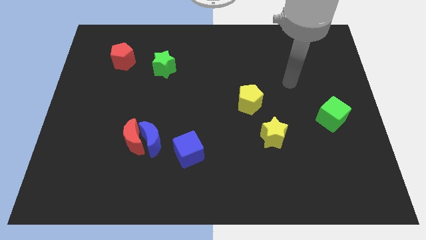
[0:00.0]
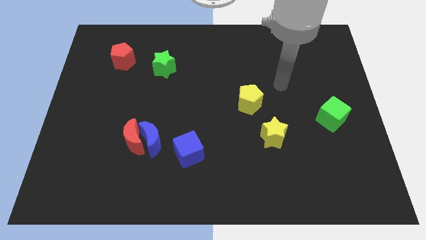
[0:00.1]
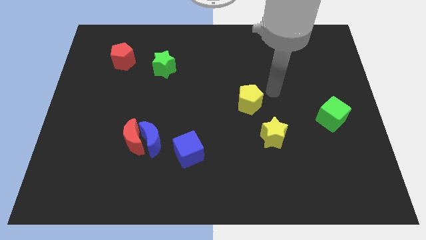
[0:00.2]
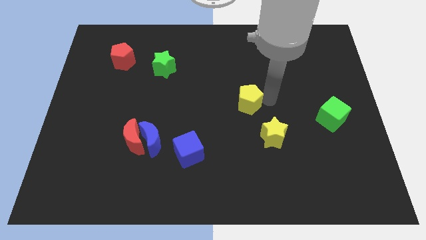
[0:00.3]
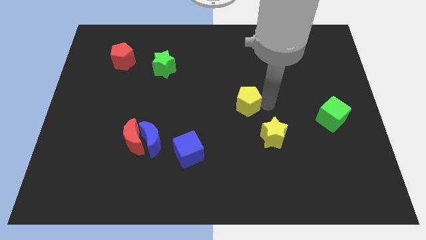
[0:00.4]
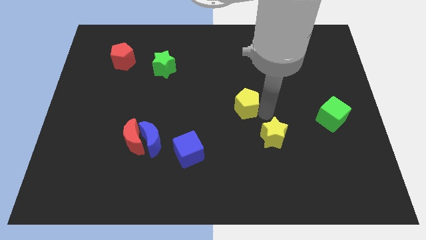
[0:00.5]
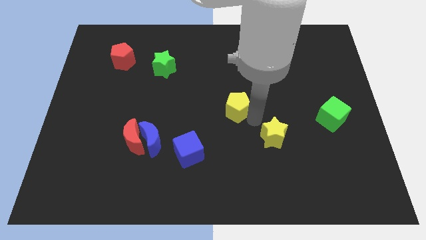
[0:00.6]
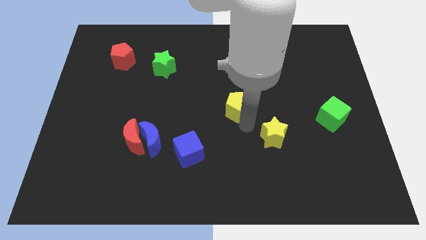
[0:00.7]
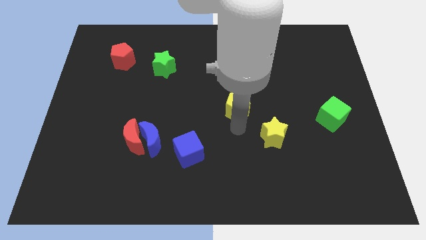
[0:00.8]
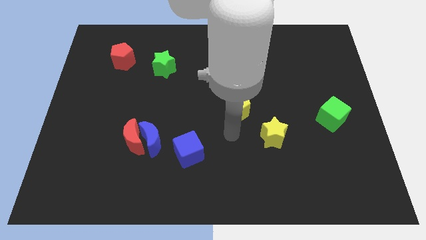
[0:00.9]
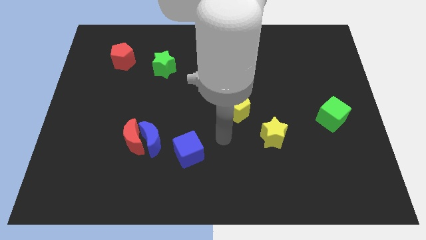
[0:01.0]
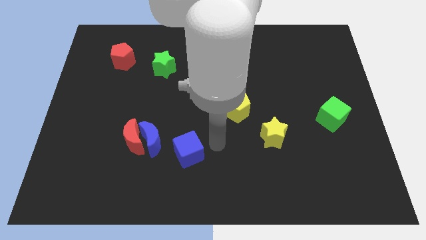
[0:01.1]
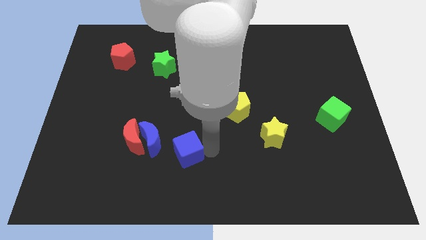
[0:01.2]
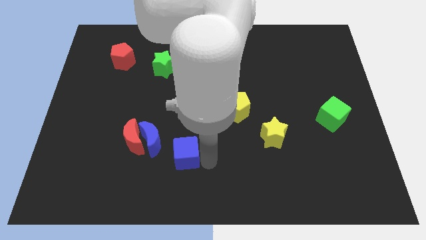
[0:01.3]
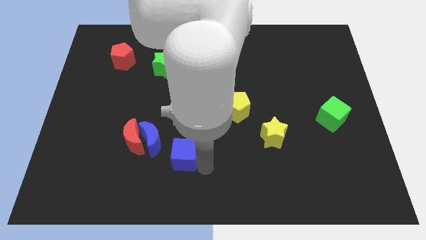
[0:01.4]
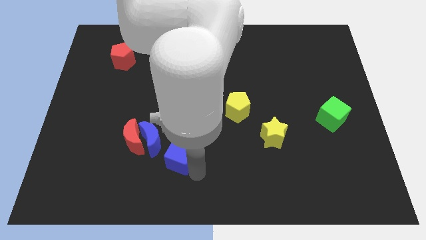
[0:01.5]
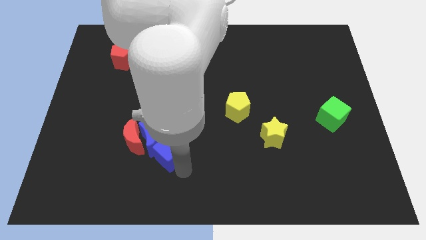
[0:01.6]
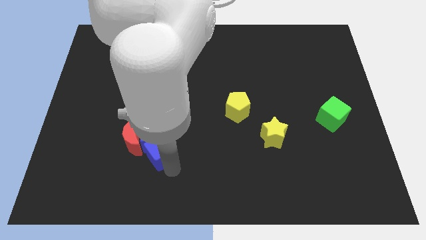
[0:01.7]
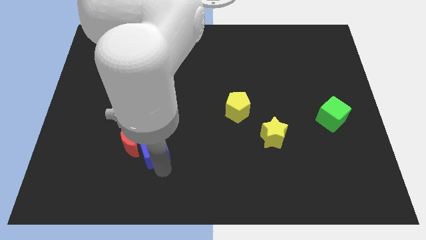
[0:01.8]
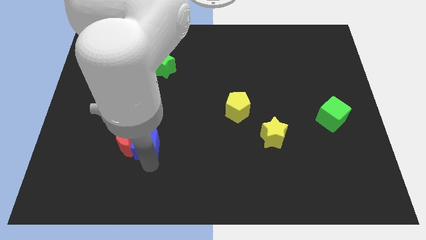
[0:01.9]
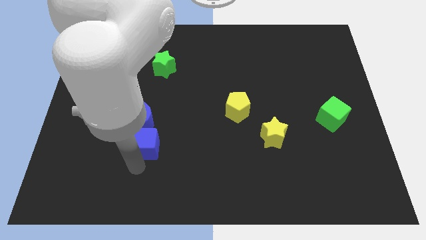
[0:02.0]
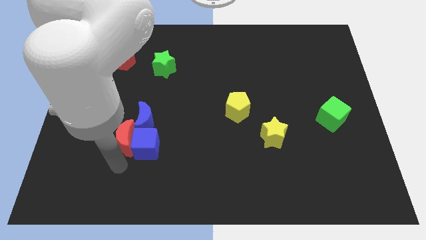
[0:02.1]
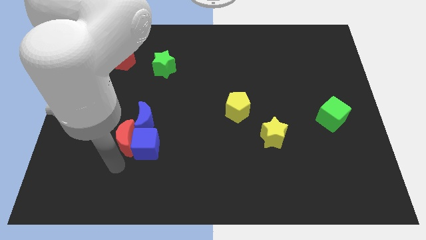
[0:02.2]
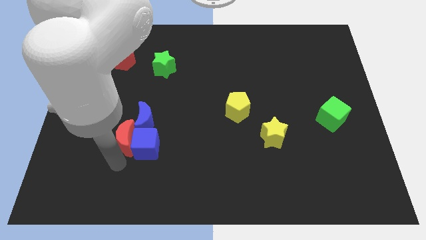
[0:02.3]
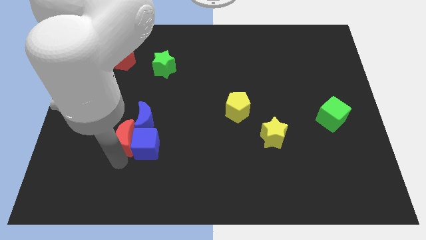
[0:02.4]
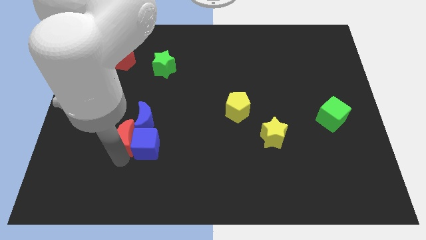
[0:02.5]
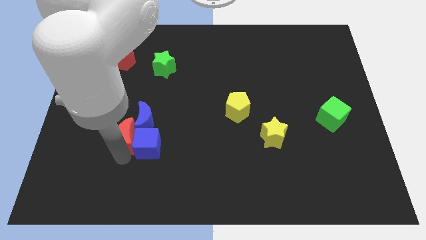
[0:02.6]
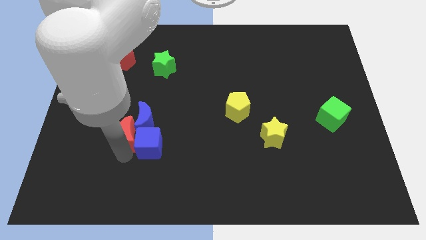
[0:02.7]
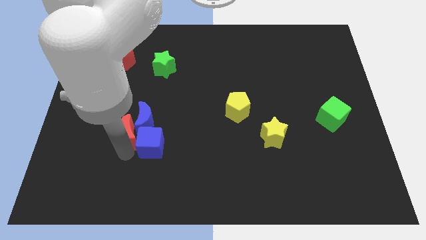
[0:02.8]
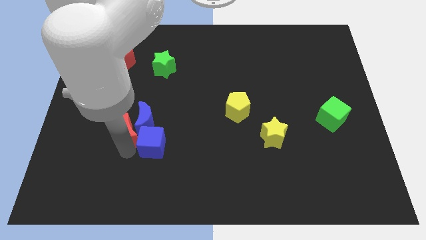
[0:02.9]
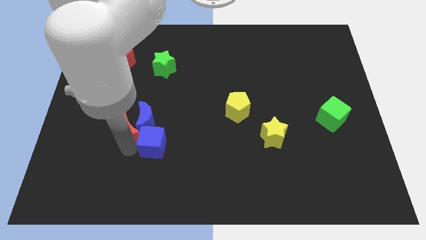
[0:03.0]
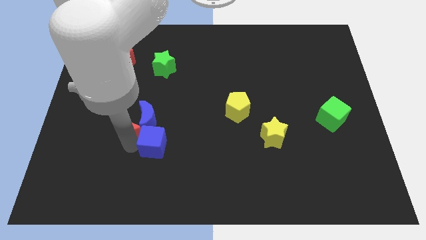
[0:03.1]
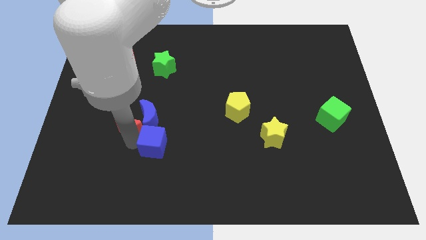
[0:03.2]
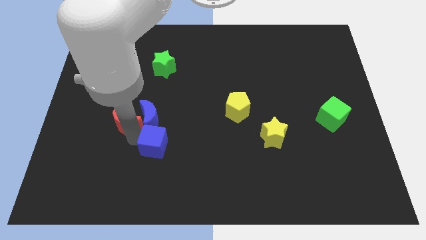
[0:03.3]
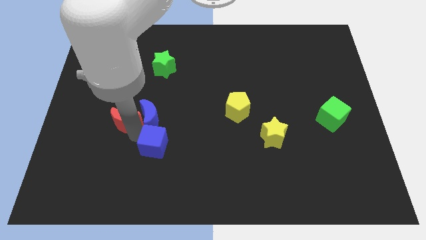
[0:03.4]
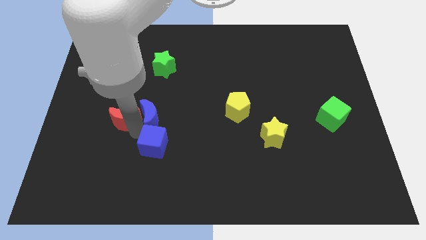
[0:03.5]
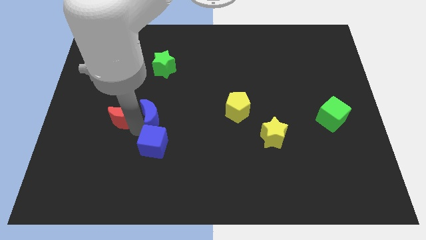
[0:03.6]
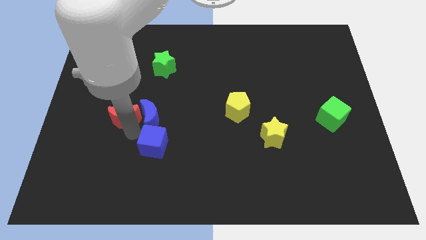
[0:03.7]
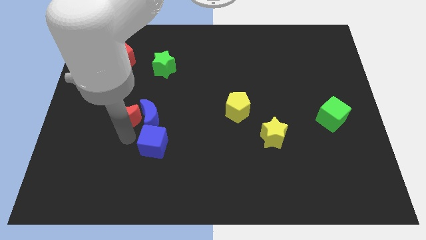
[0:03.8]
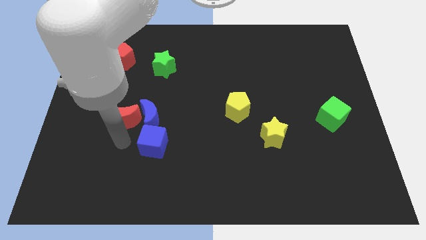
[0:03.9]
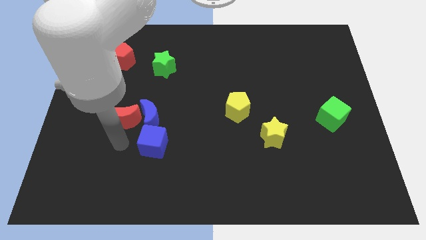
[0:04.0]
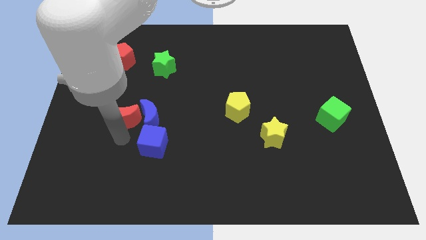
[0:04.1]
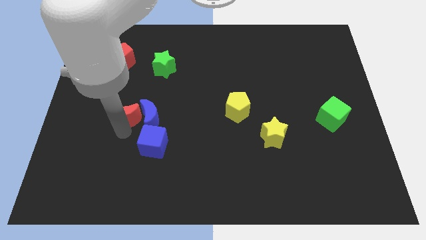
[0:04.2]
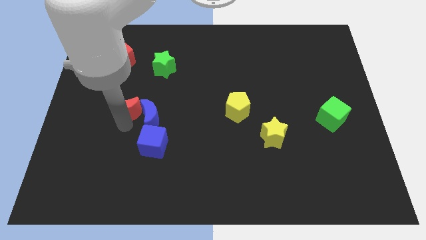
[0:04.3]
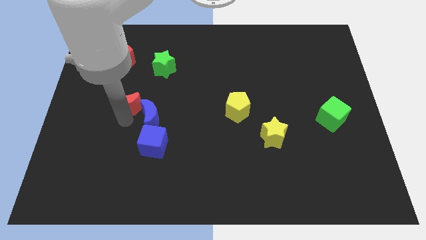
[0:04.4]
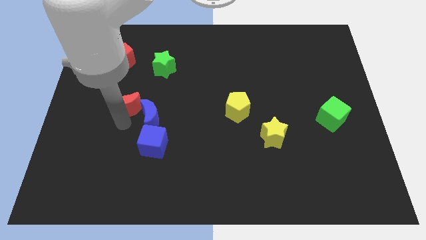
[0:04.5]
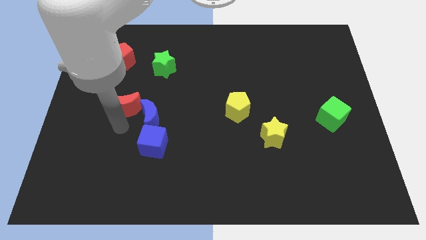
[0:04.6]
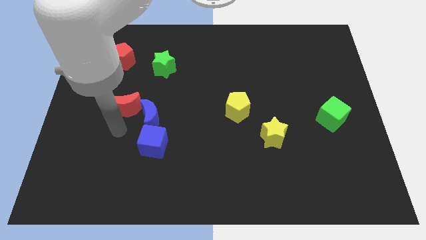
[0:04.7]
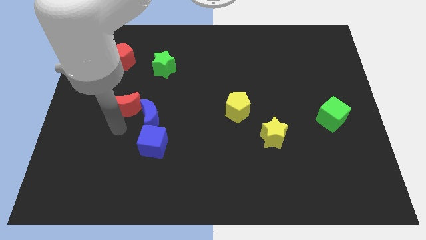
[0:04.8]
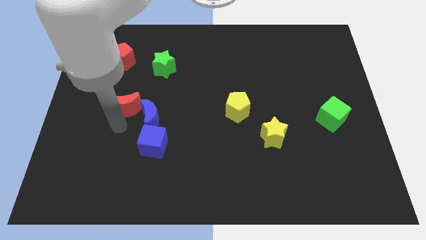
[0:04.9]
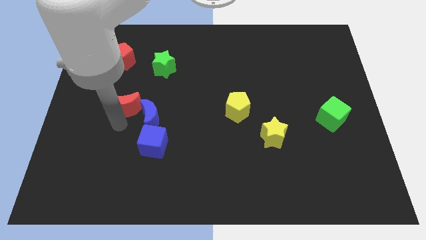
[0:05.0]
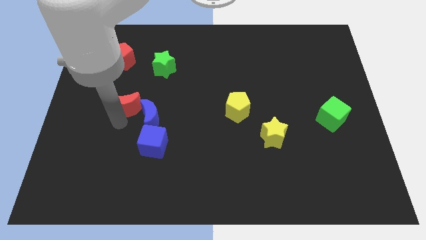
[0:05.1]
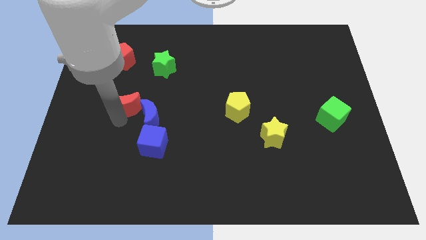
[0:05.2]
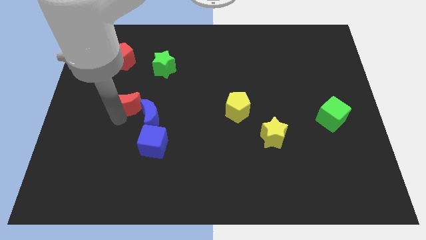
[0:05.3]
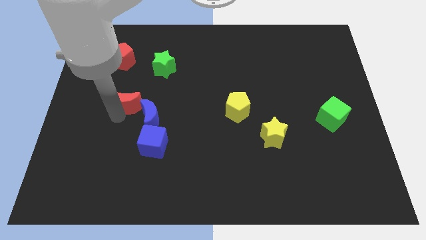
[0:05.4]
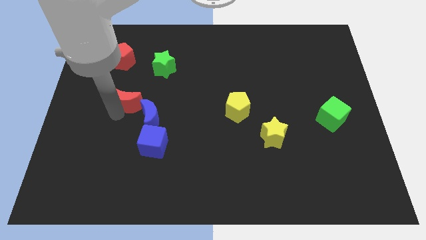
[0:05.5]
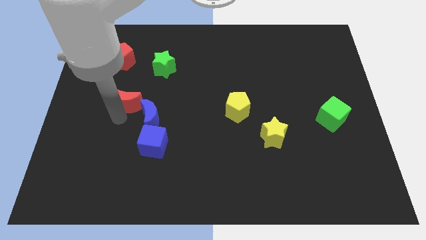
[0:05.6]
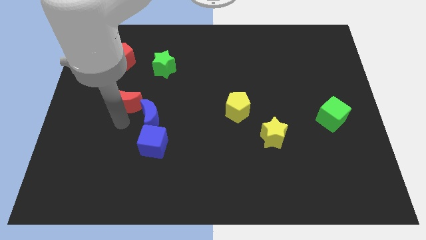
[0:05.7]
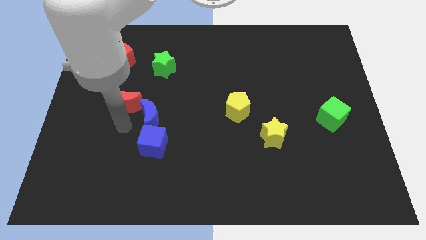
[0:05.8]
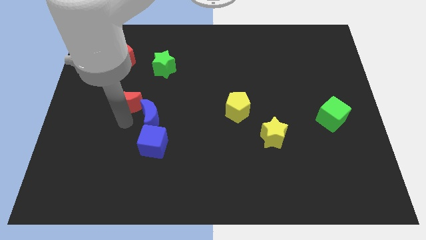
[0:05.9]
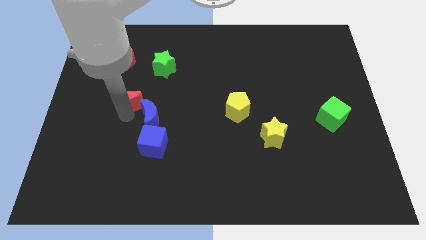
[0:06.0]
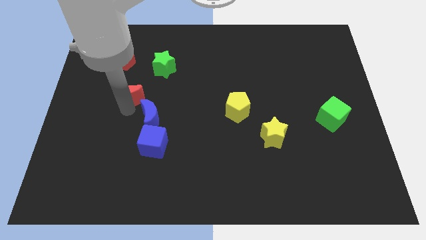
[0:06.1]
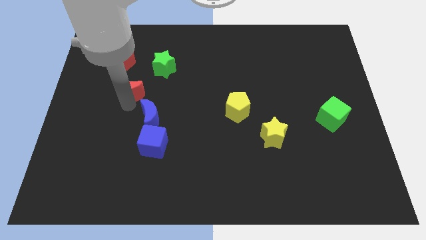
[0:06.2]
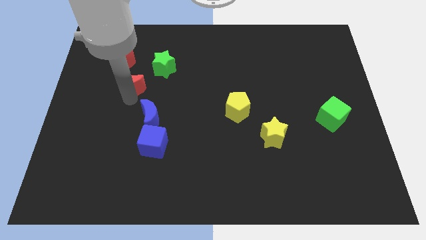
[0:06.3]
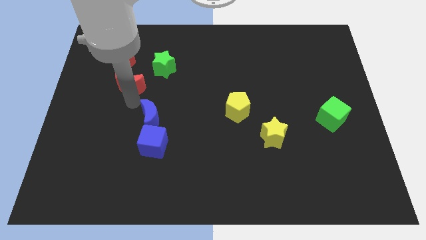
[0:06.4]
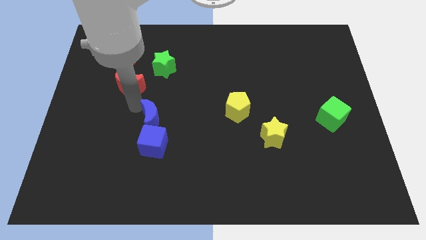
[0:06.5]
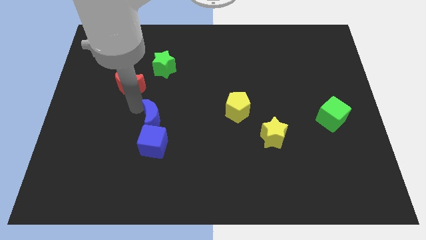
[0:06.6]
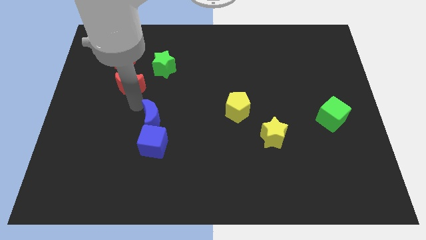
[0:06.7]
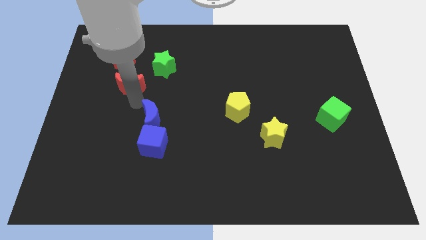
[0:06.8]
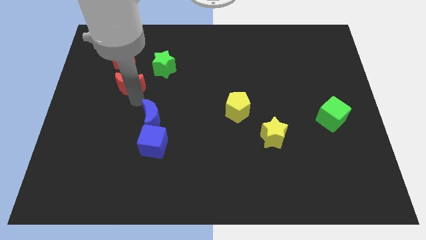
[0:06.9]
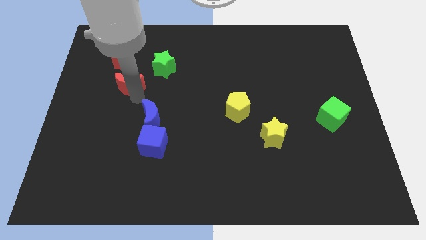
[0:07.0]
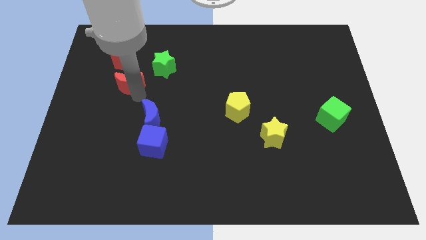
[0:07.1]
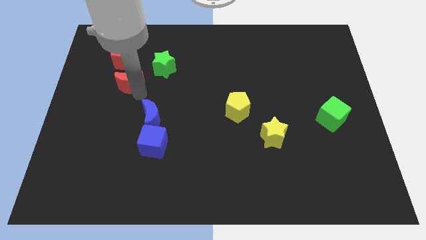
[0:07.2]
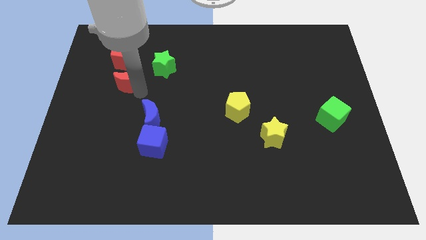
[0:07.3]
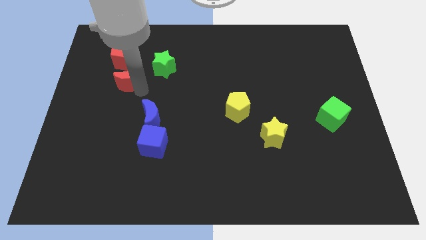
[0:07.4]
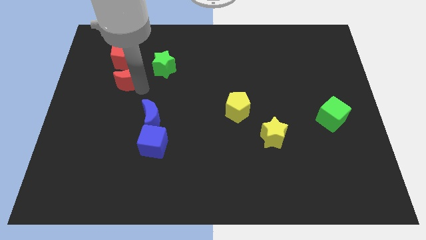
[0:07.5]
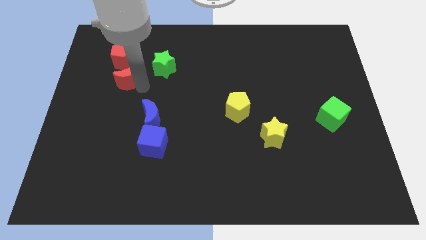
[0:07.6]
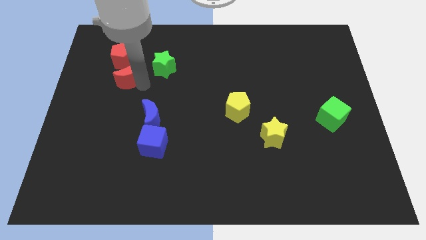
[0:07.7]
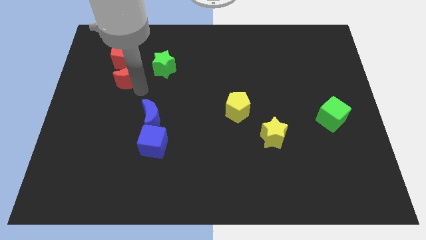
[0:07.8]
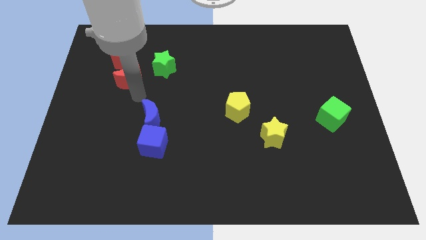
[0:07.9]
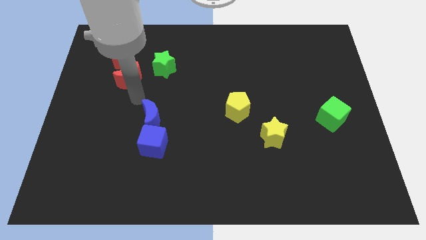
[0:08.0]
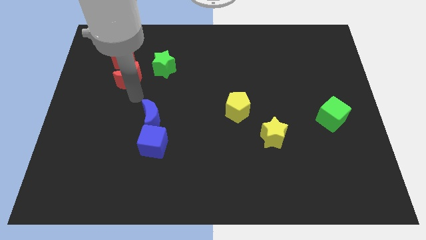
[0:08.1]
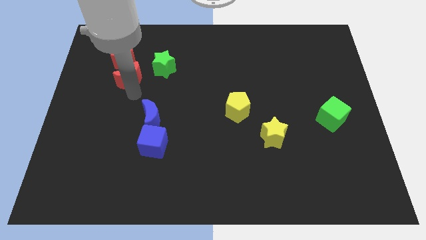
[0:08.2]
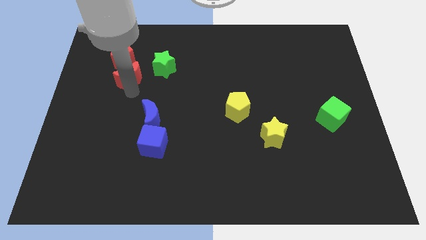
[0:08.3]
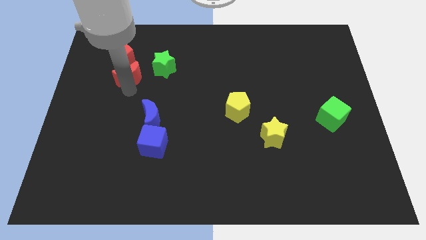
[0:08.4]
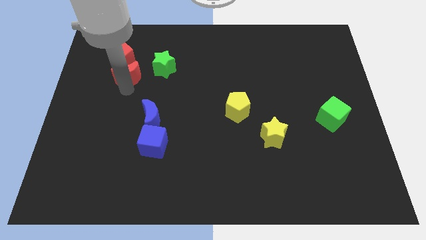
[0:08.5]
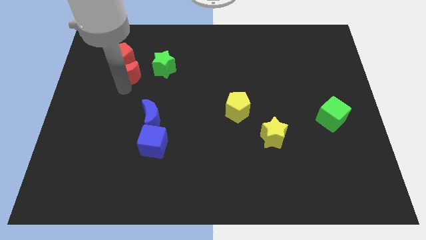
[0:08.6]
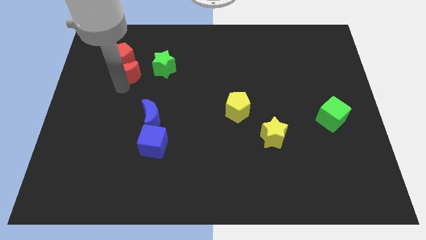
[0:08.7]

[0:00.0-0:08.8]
move the red moon to the red pentagon
